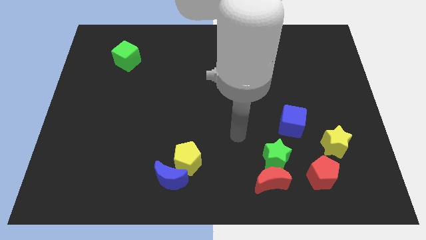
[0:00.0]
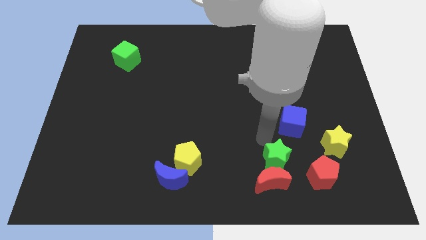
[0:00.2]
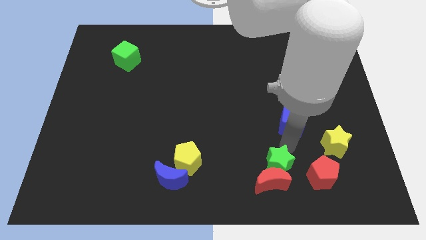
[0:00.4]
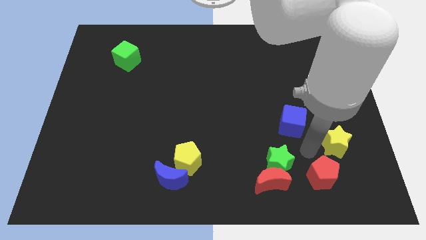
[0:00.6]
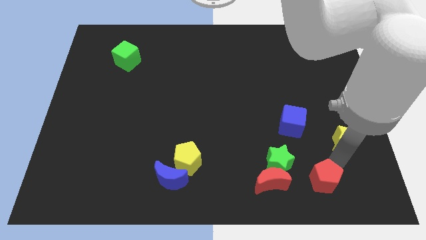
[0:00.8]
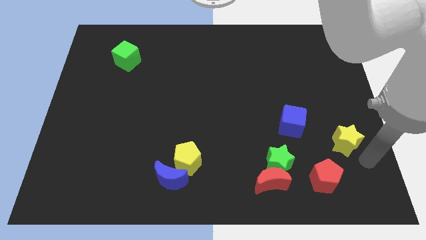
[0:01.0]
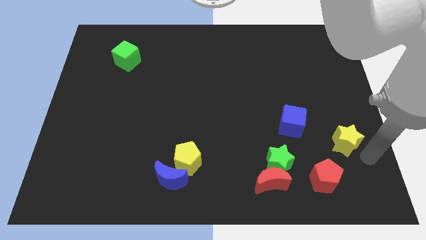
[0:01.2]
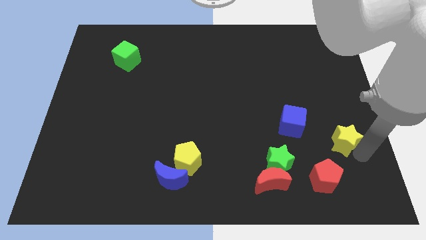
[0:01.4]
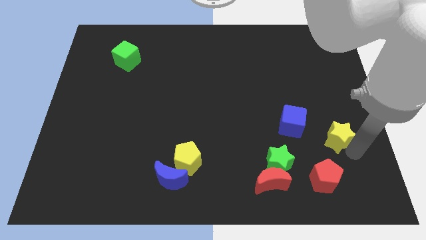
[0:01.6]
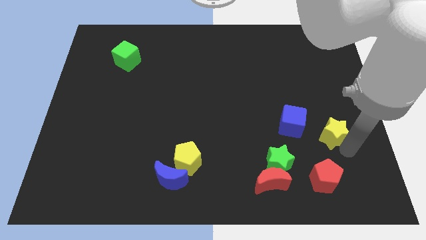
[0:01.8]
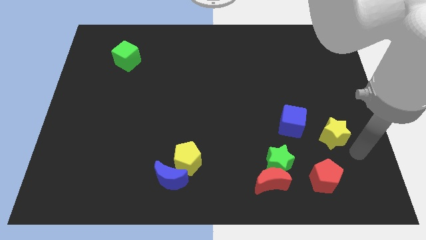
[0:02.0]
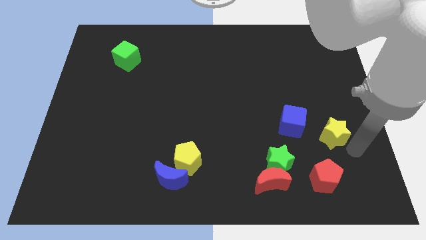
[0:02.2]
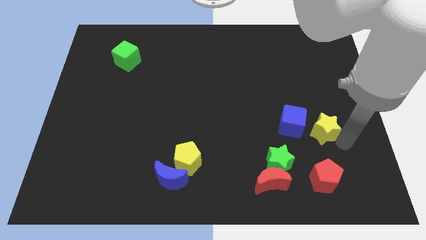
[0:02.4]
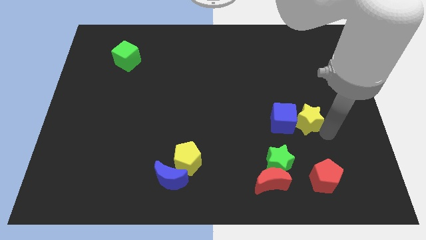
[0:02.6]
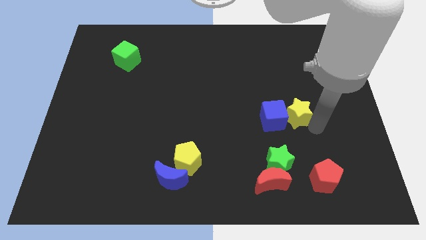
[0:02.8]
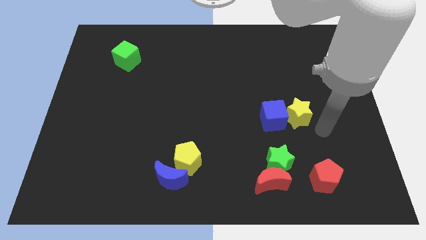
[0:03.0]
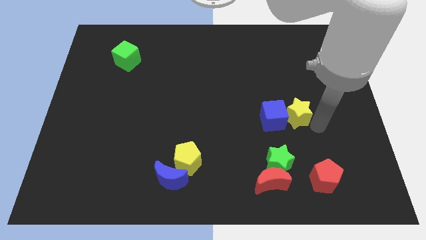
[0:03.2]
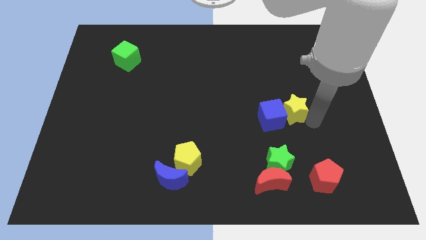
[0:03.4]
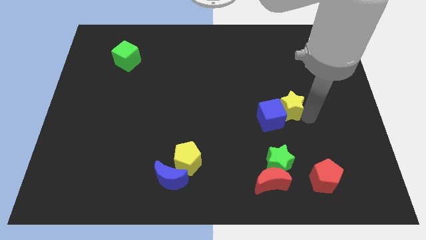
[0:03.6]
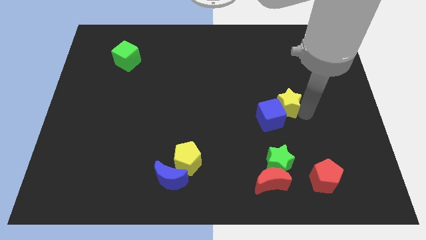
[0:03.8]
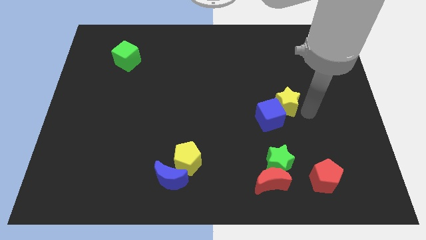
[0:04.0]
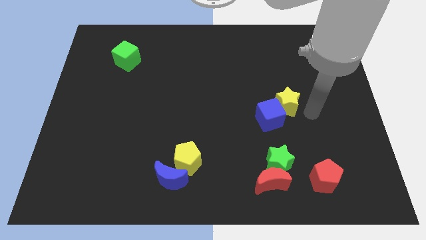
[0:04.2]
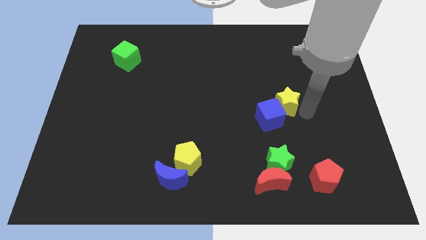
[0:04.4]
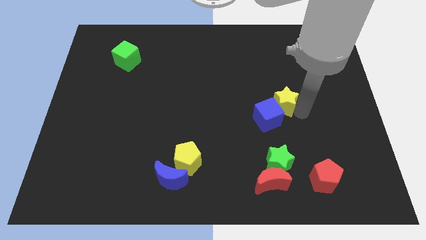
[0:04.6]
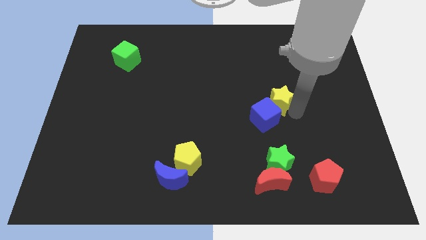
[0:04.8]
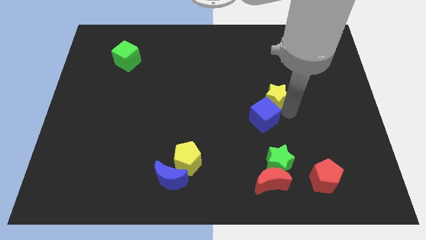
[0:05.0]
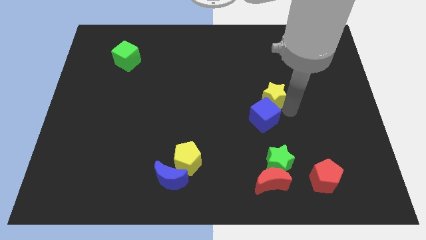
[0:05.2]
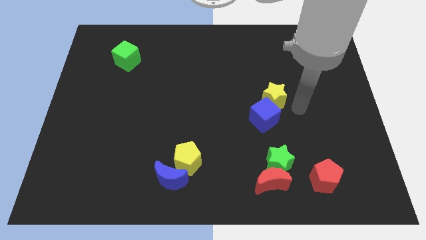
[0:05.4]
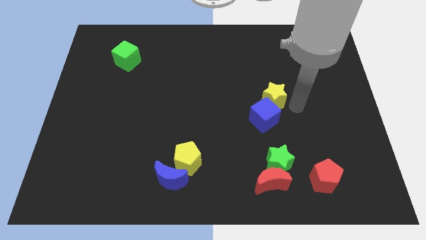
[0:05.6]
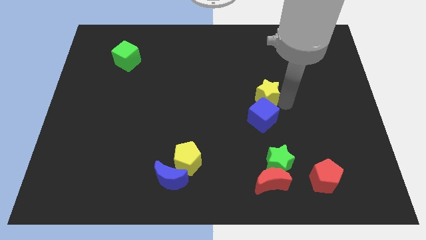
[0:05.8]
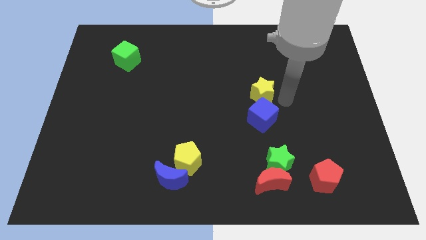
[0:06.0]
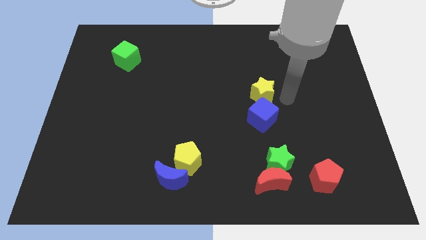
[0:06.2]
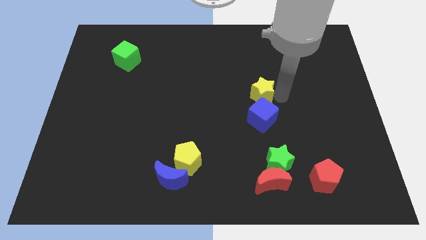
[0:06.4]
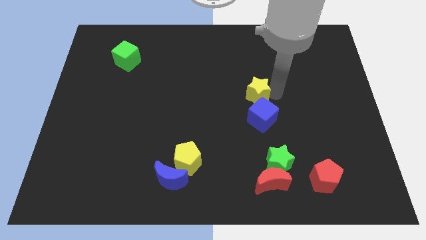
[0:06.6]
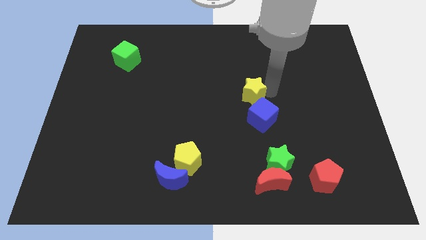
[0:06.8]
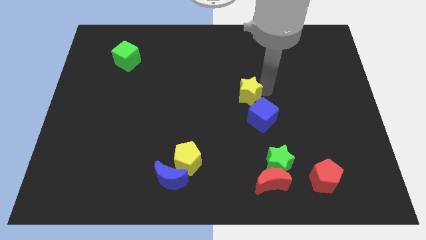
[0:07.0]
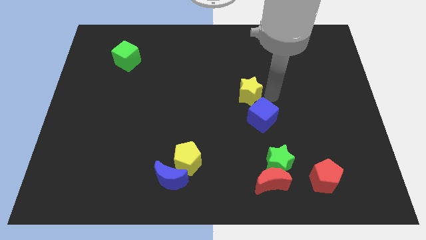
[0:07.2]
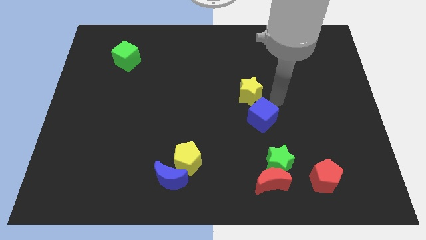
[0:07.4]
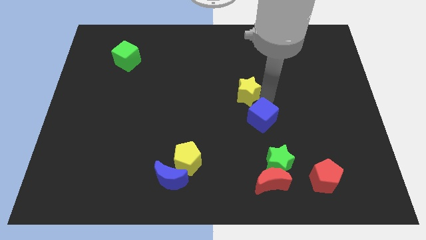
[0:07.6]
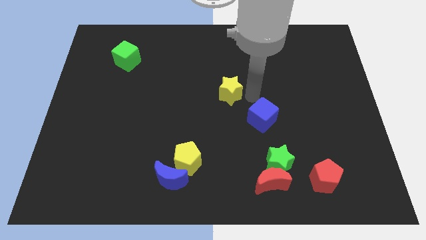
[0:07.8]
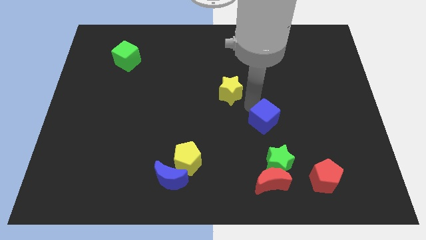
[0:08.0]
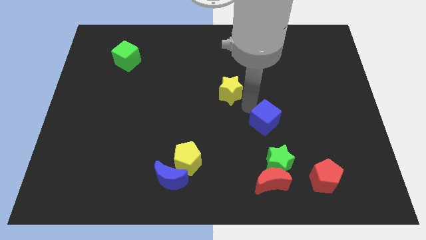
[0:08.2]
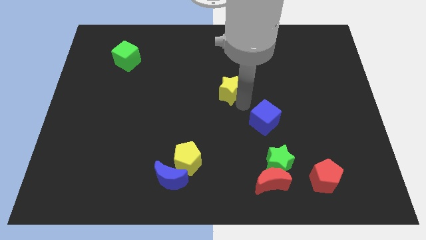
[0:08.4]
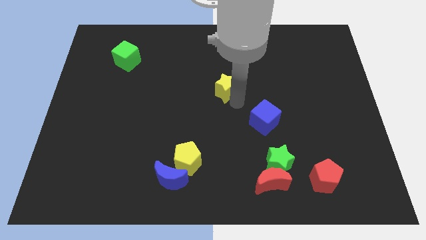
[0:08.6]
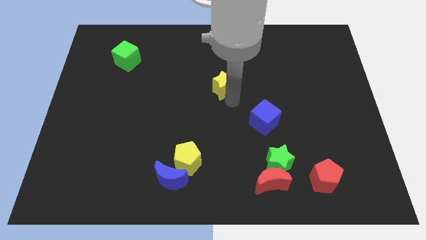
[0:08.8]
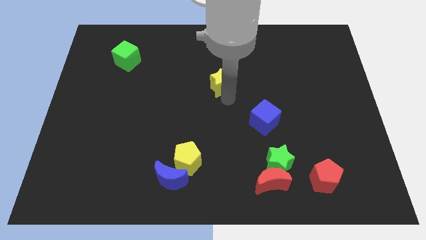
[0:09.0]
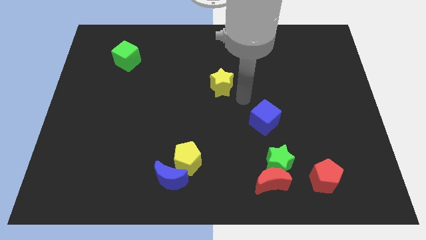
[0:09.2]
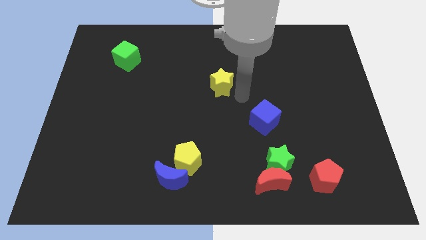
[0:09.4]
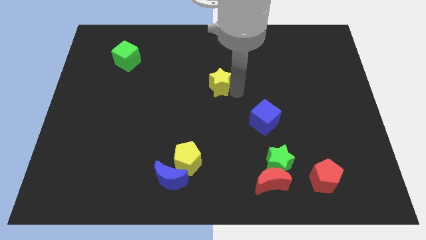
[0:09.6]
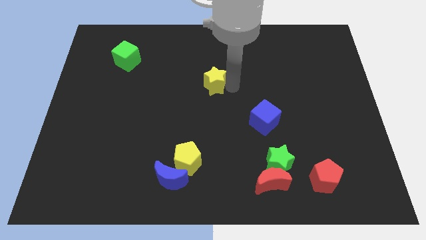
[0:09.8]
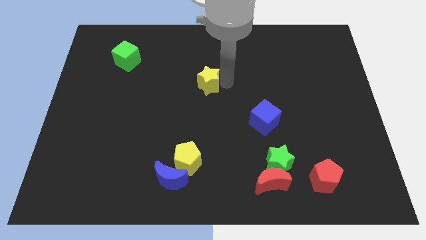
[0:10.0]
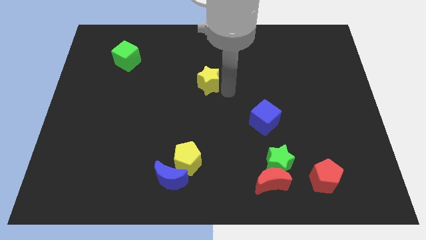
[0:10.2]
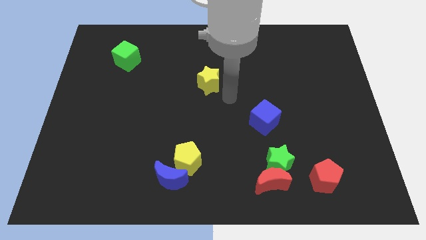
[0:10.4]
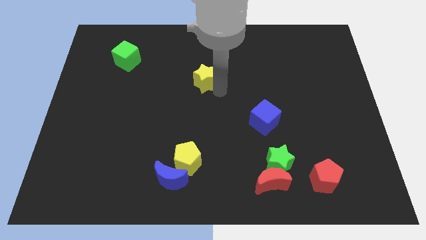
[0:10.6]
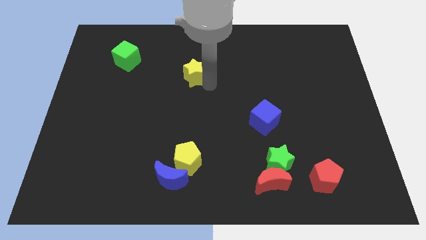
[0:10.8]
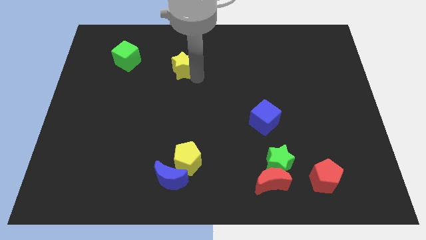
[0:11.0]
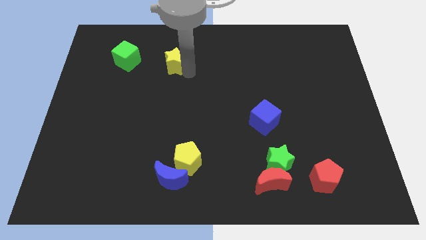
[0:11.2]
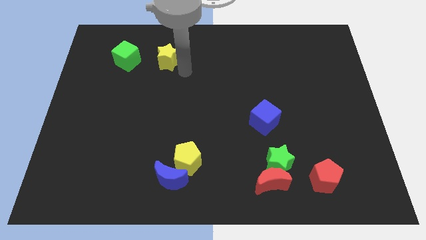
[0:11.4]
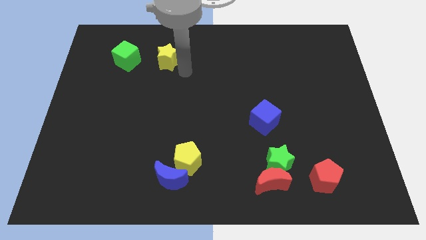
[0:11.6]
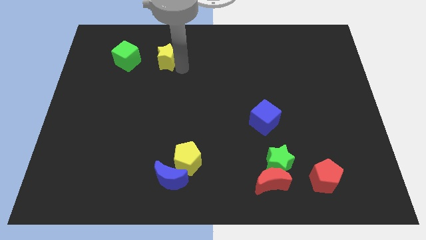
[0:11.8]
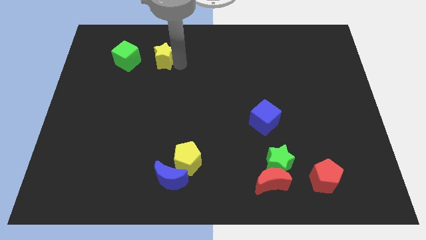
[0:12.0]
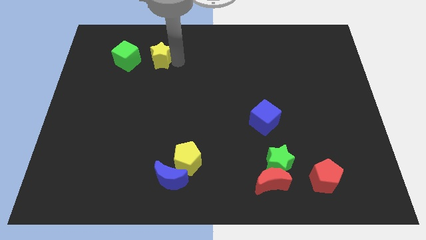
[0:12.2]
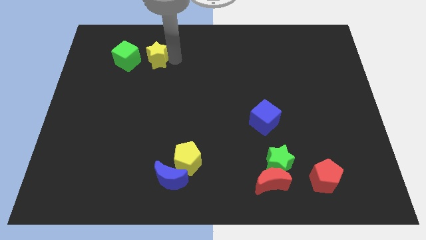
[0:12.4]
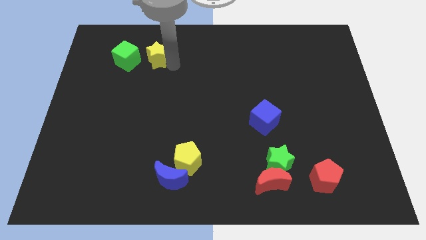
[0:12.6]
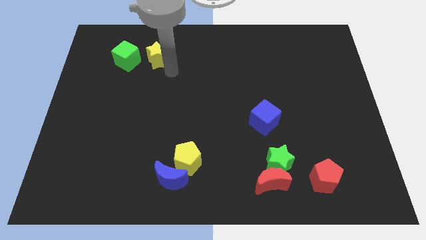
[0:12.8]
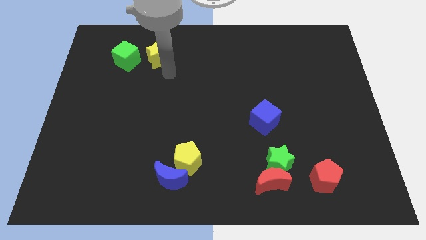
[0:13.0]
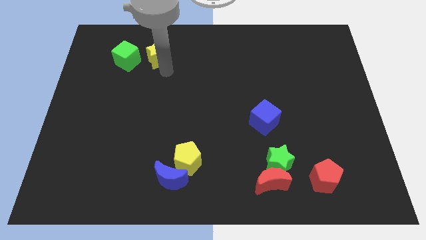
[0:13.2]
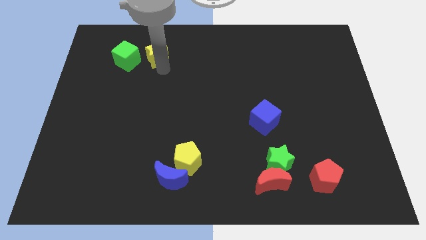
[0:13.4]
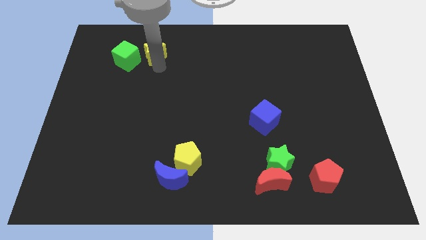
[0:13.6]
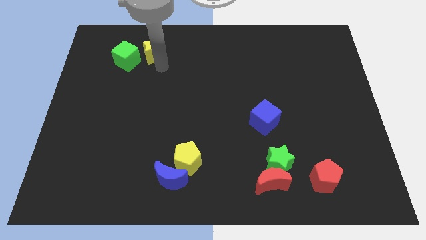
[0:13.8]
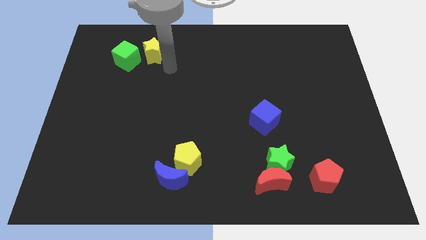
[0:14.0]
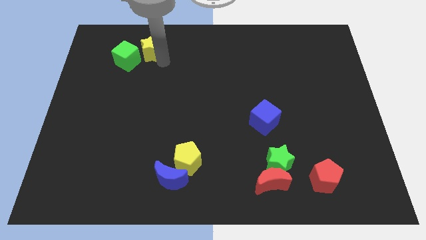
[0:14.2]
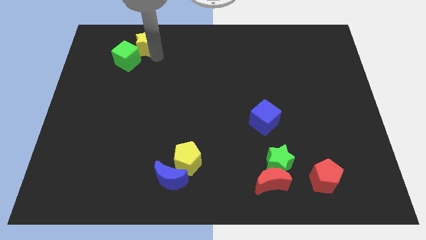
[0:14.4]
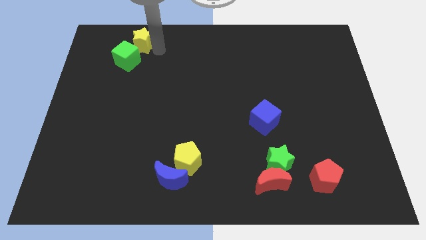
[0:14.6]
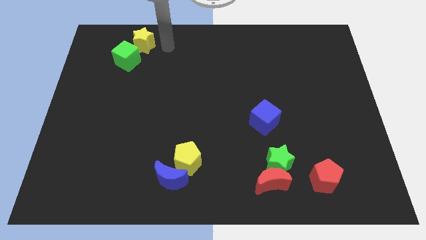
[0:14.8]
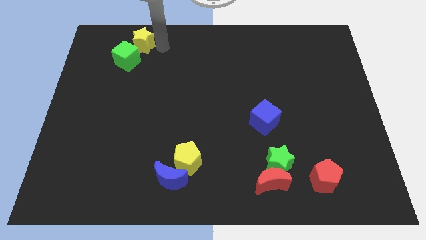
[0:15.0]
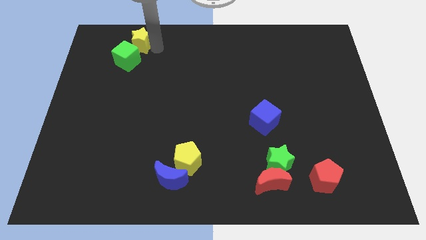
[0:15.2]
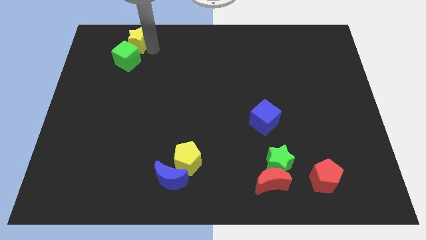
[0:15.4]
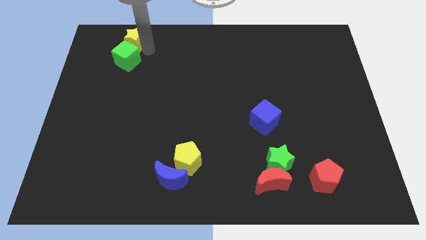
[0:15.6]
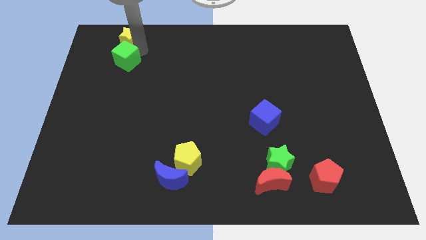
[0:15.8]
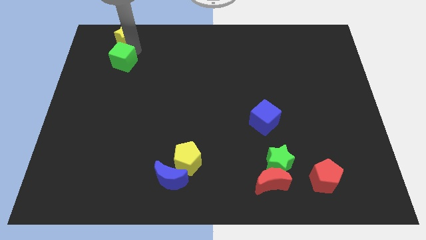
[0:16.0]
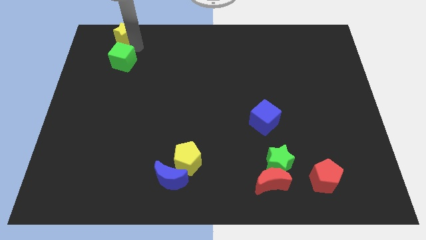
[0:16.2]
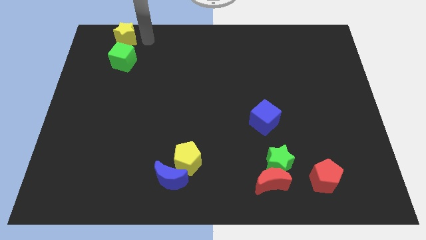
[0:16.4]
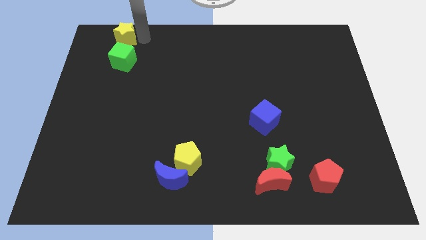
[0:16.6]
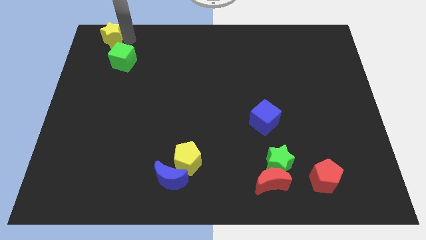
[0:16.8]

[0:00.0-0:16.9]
slide the yellow star to the top left corner
